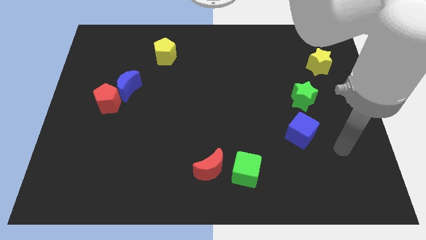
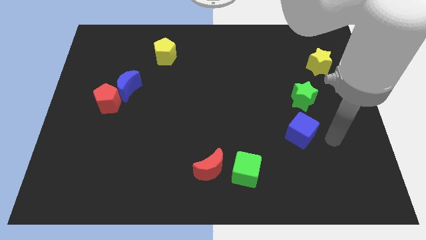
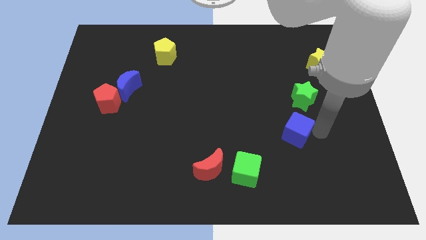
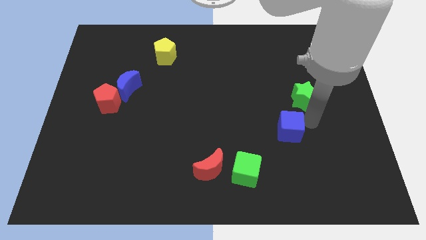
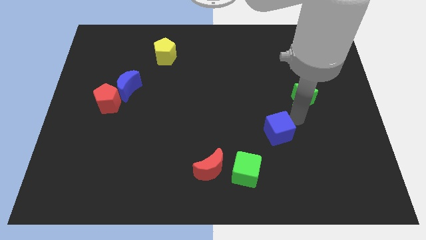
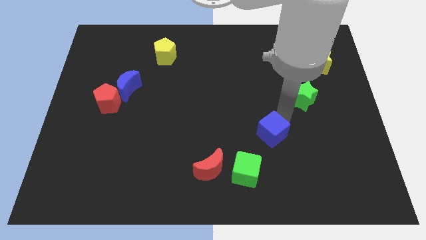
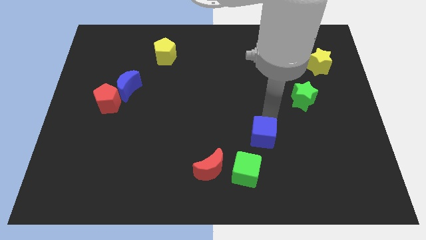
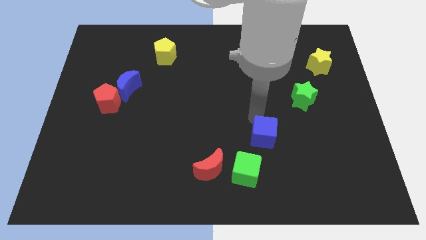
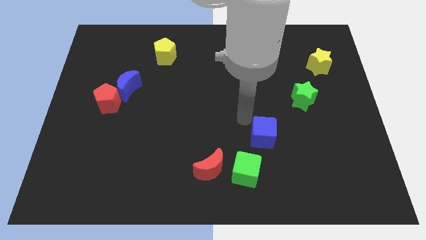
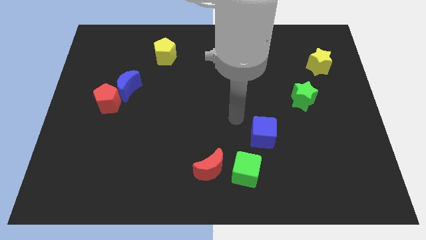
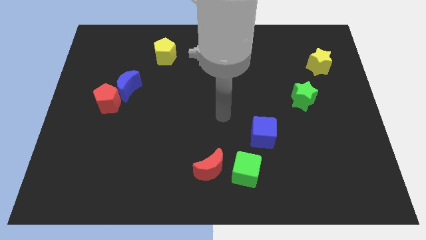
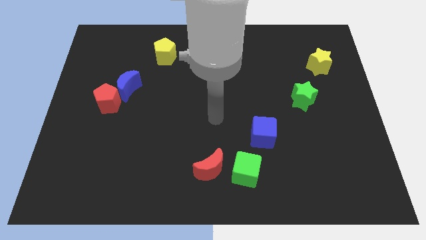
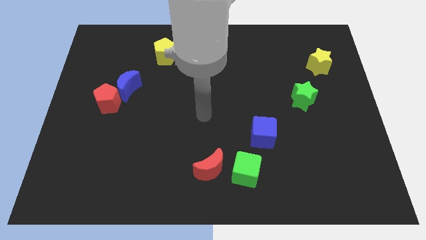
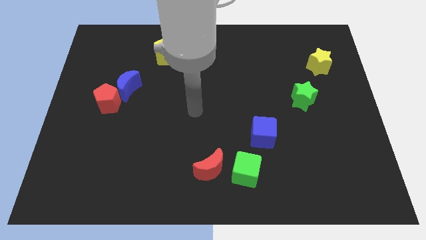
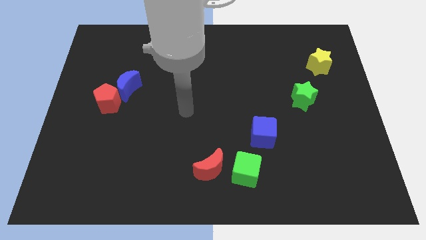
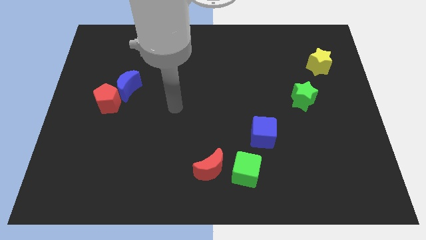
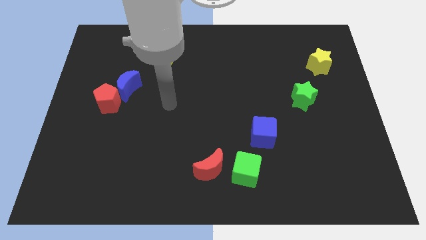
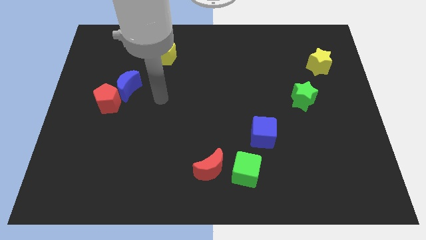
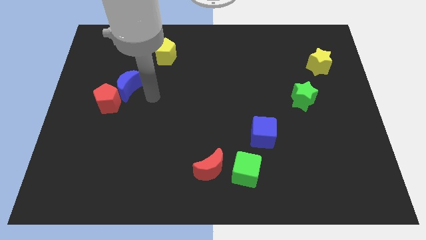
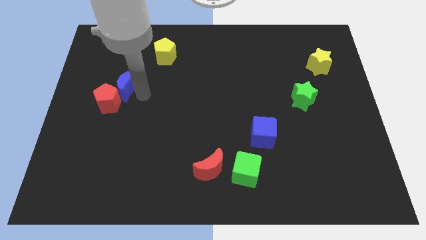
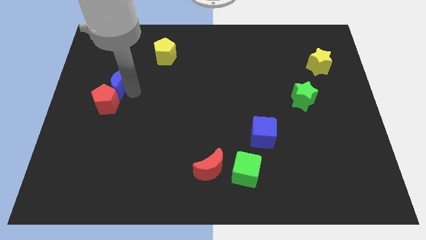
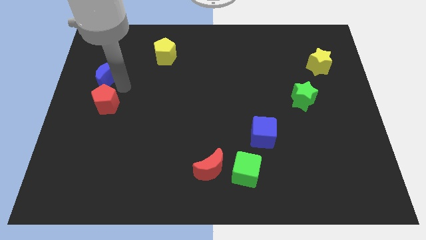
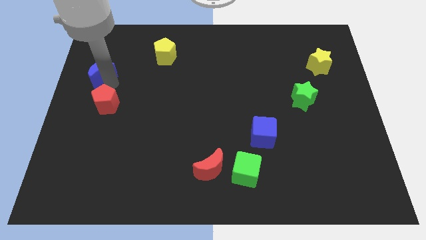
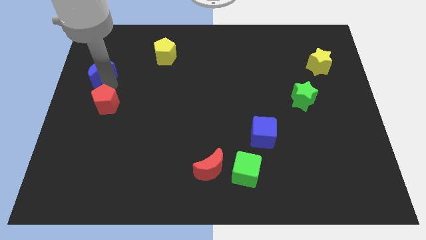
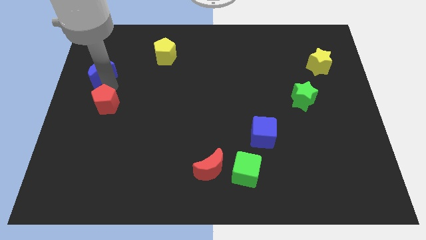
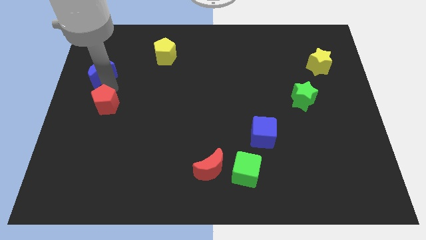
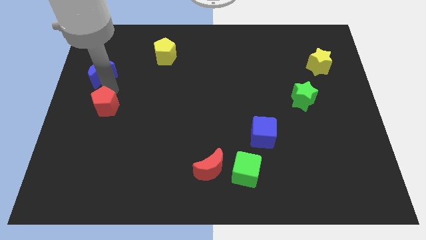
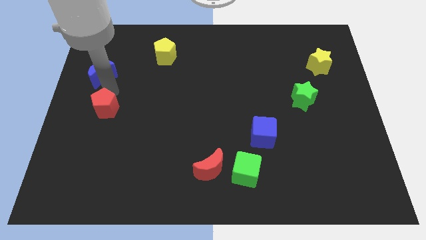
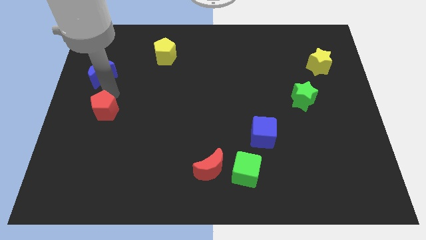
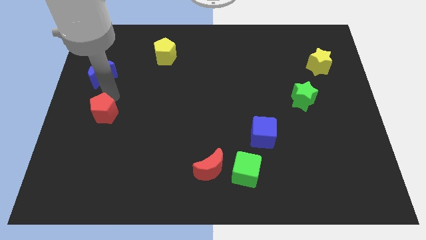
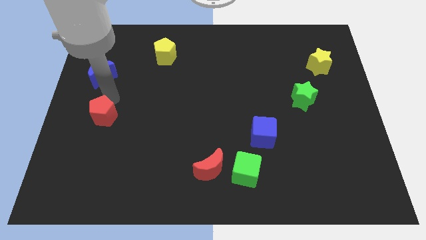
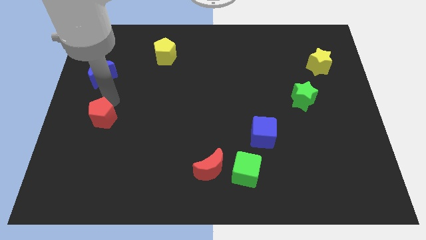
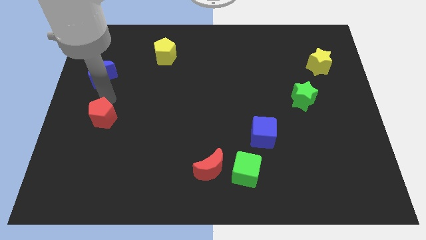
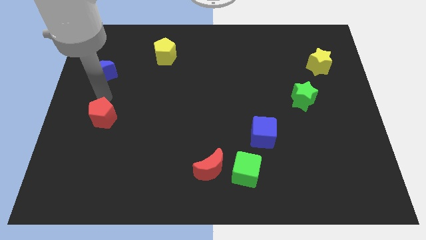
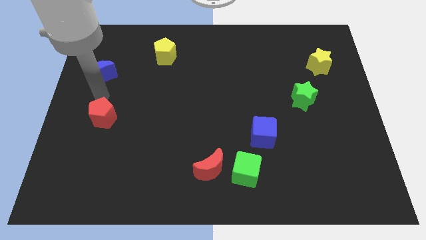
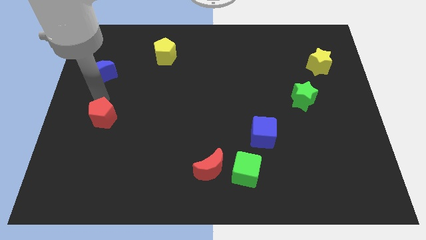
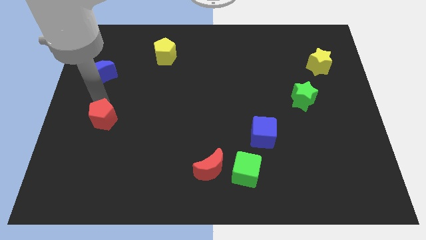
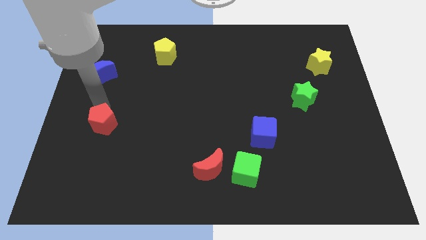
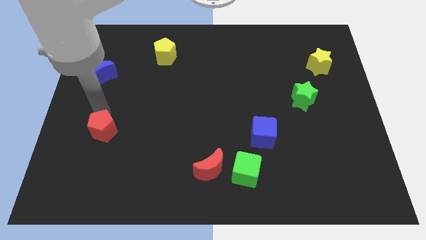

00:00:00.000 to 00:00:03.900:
move the red pentagon a little bit downwards

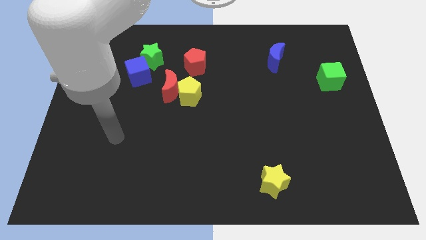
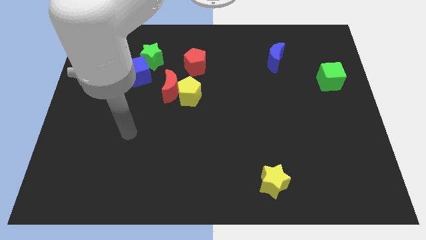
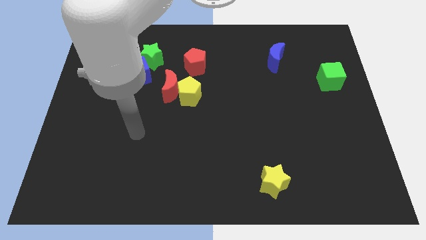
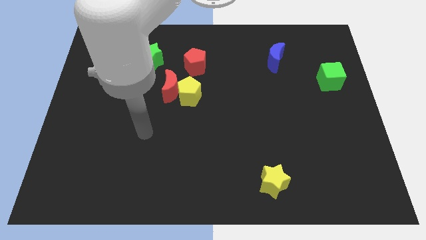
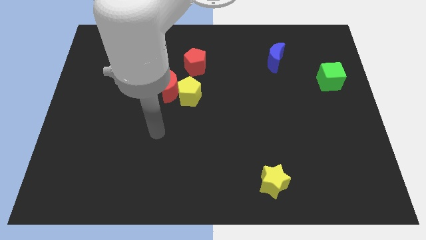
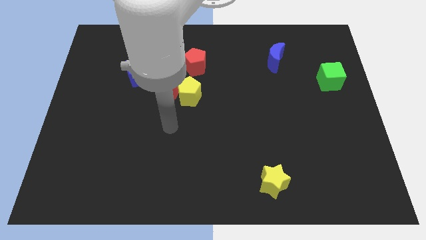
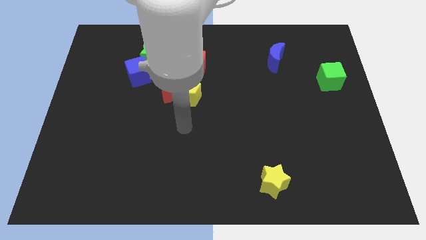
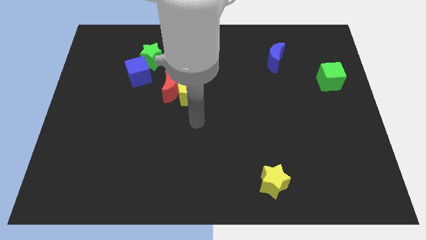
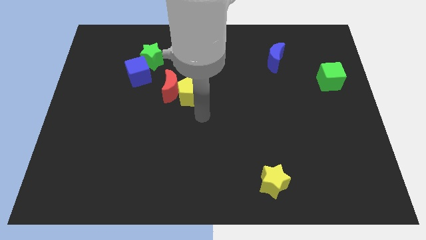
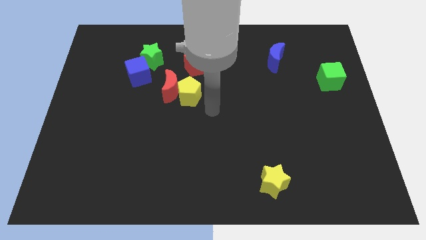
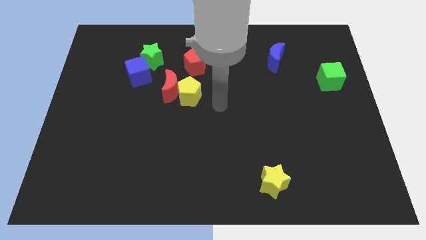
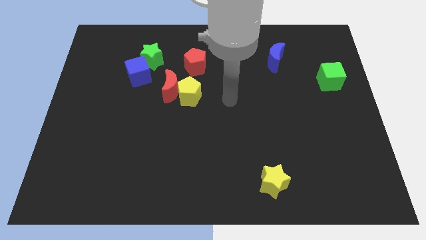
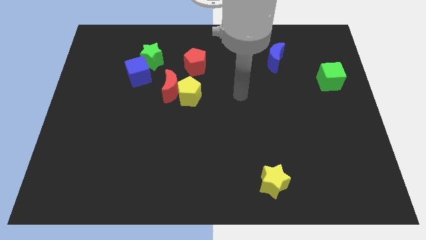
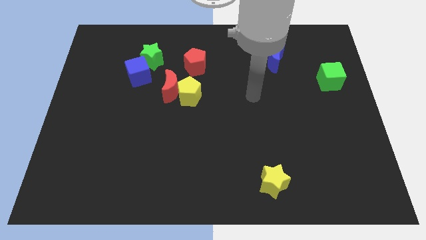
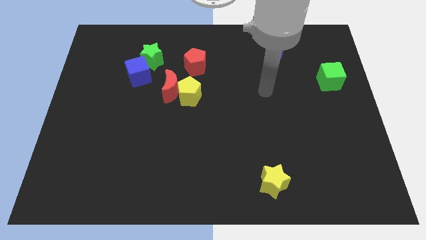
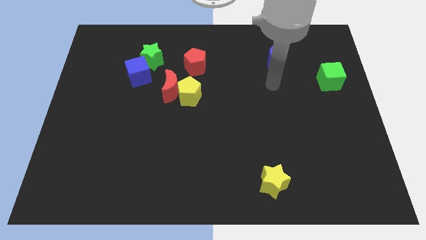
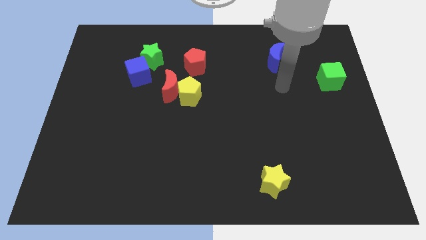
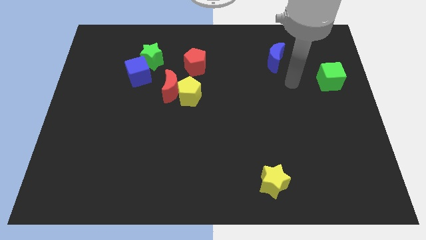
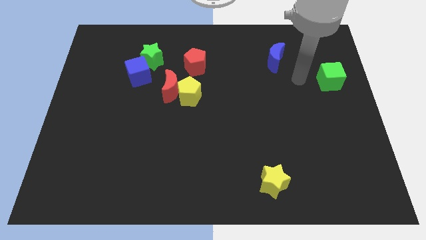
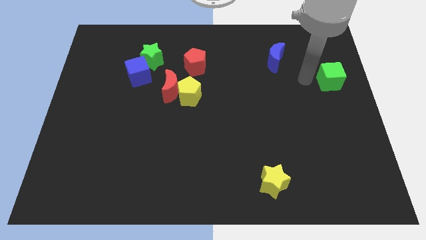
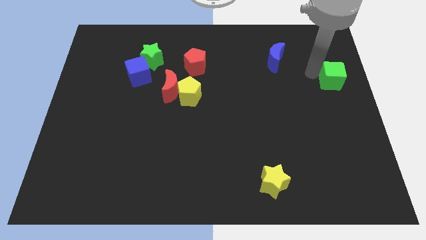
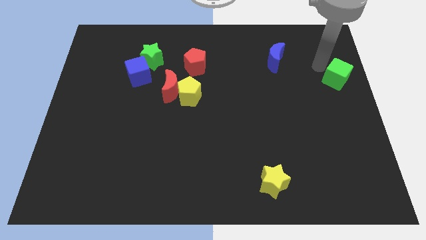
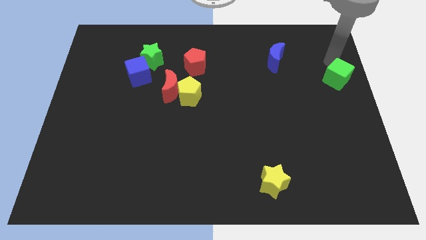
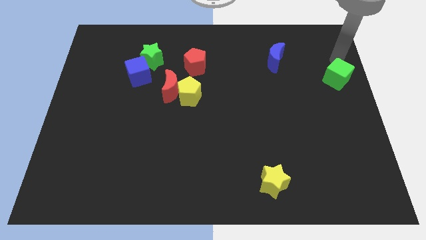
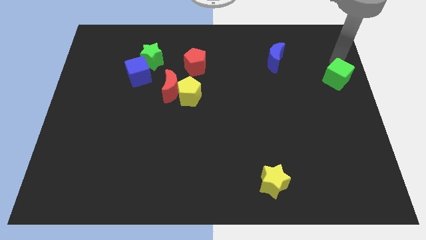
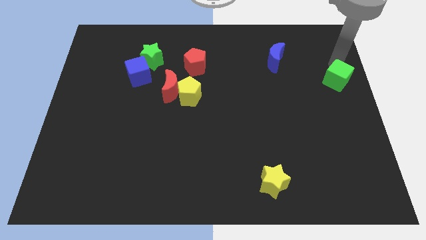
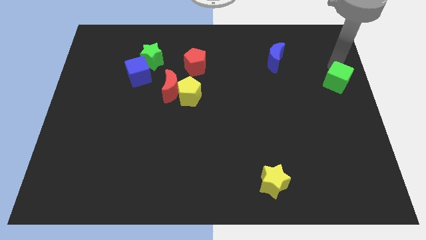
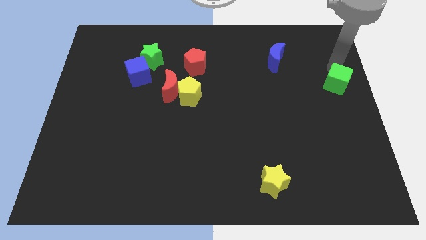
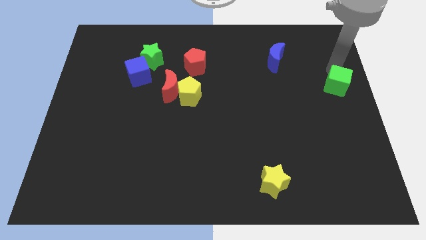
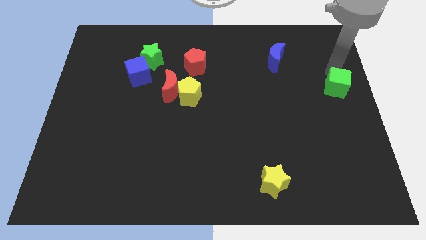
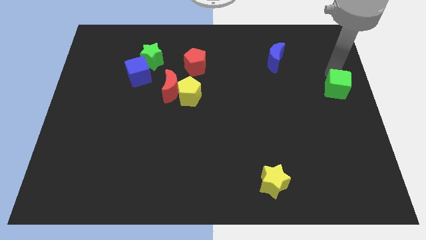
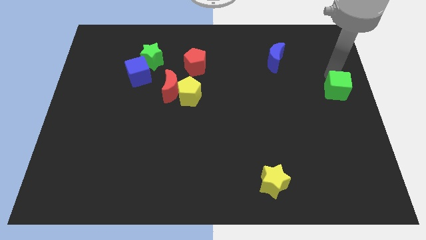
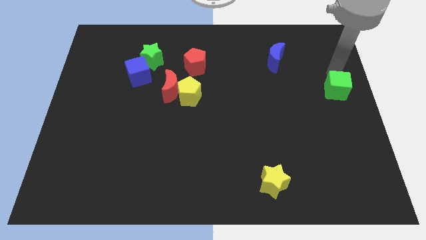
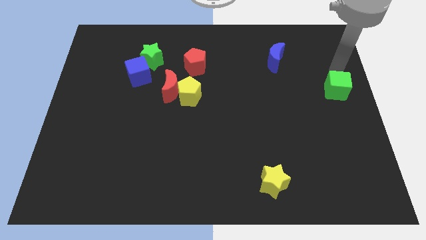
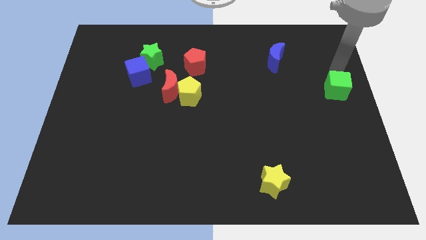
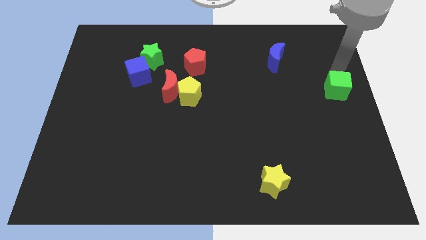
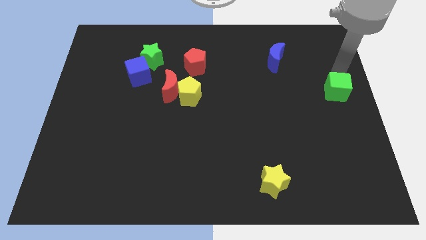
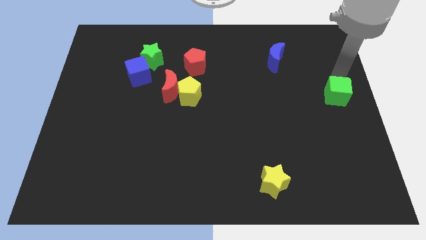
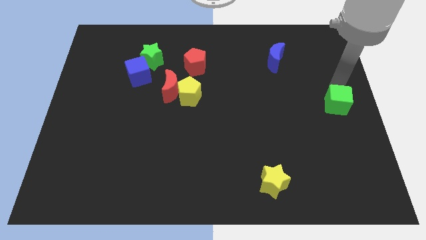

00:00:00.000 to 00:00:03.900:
move the green cube downwards a little bit

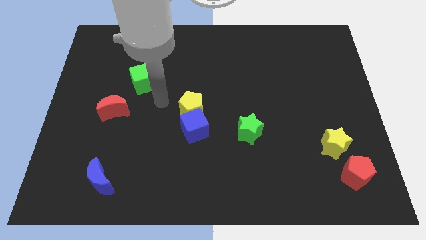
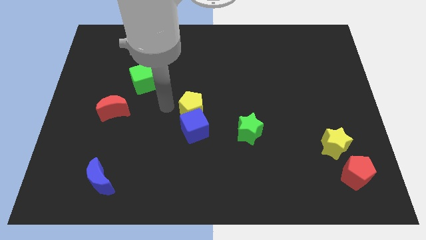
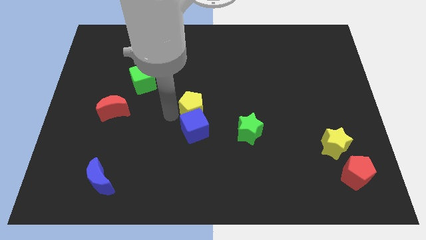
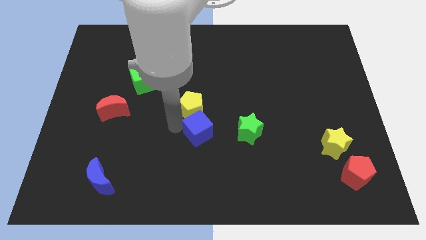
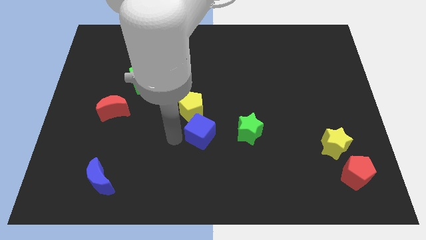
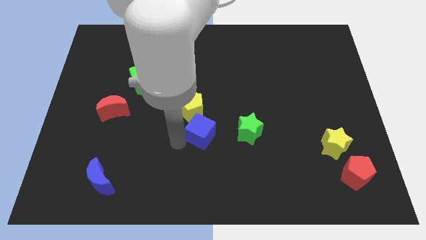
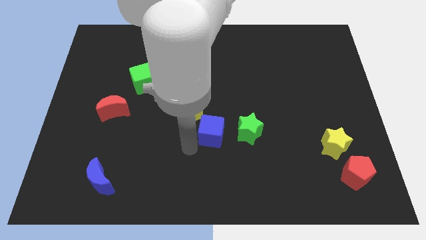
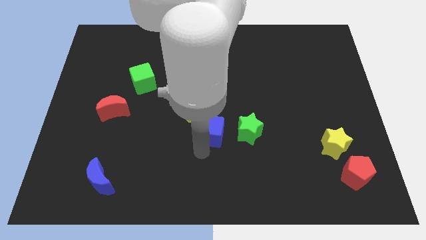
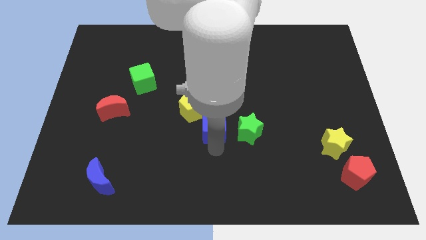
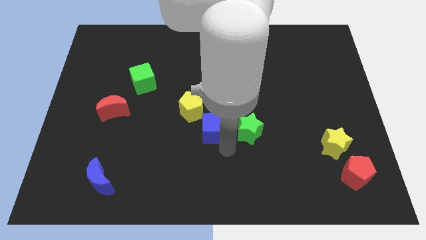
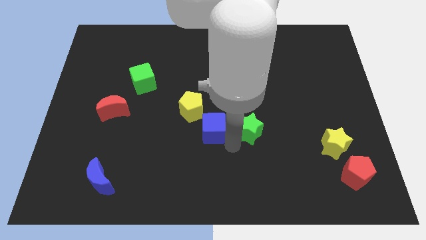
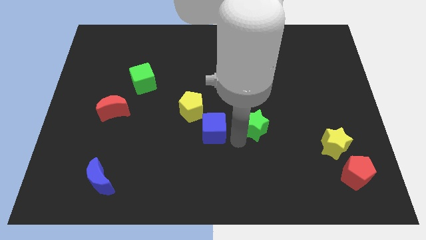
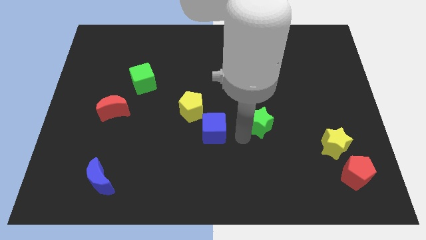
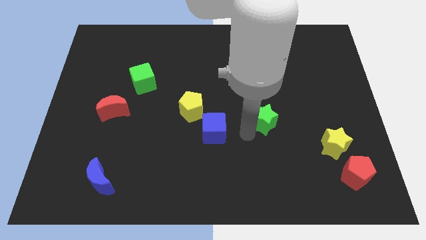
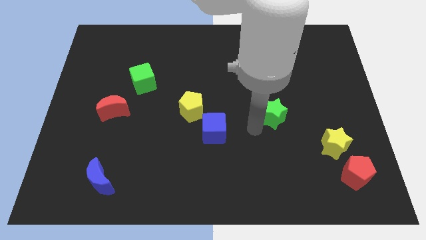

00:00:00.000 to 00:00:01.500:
slide the green star a bit diagonally up and right
